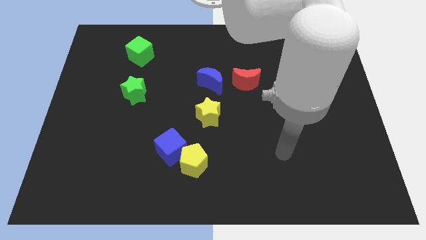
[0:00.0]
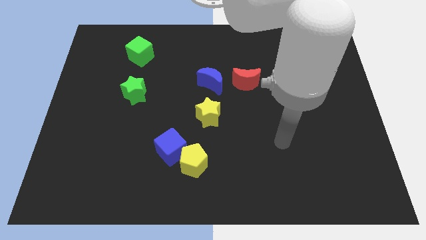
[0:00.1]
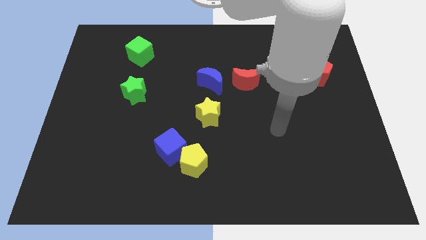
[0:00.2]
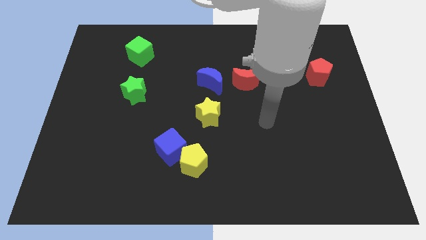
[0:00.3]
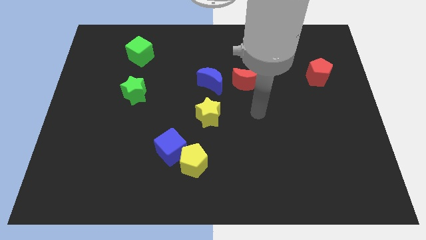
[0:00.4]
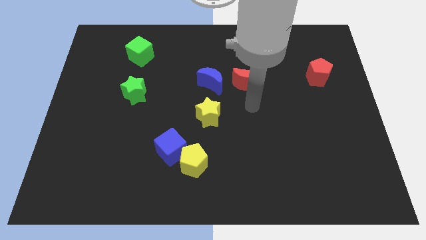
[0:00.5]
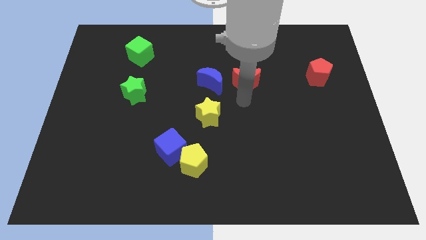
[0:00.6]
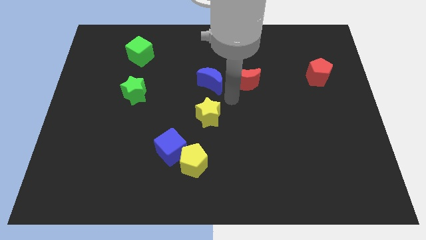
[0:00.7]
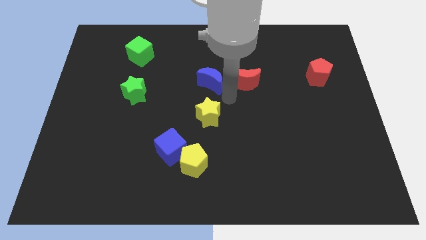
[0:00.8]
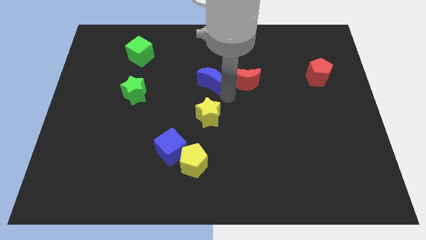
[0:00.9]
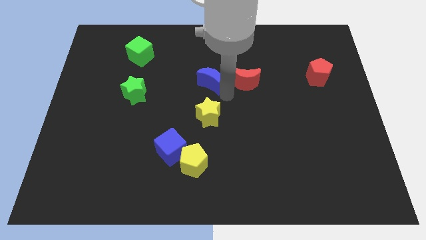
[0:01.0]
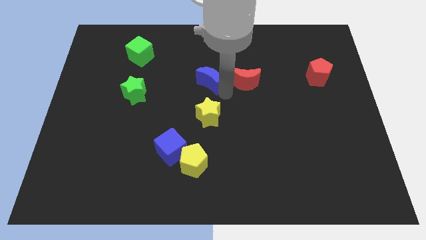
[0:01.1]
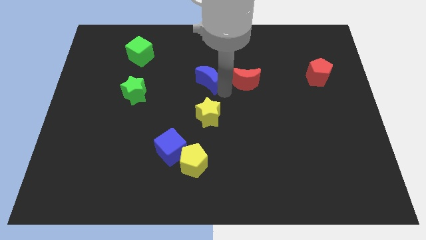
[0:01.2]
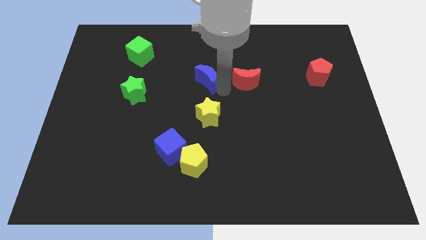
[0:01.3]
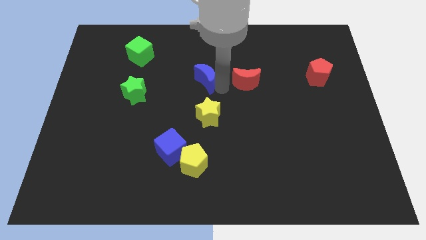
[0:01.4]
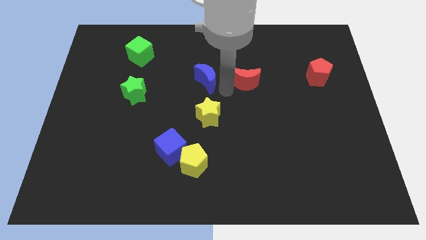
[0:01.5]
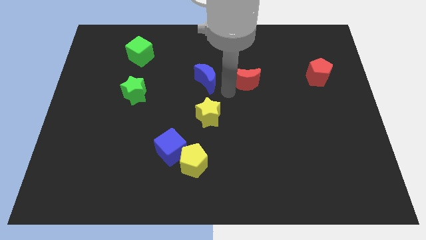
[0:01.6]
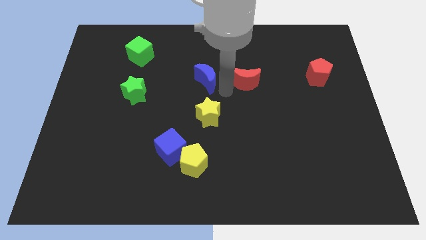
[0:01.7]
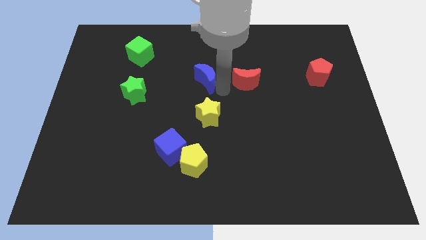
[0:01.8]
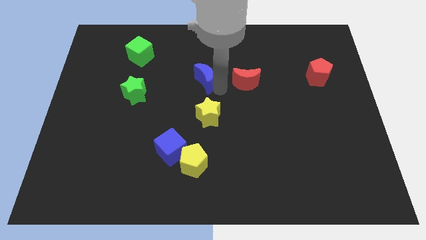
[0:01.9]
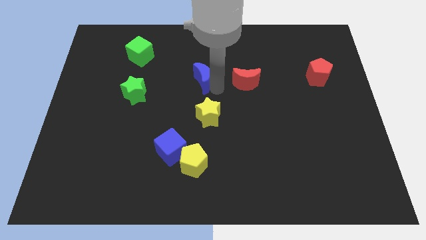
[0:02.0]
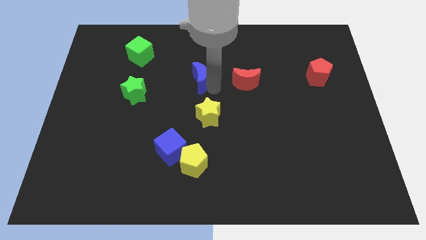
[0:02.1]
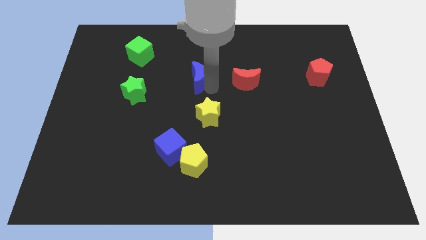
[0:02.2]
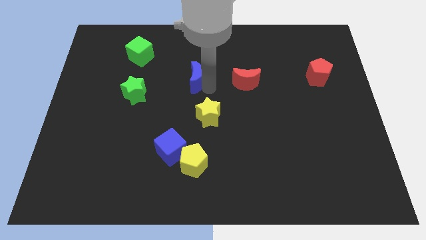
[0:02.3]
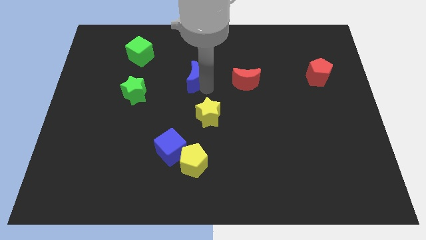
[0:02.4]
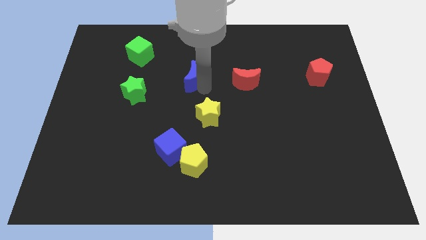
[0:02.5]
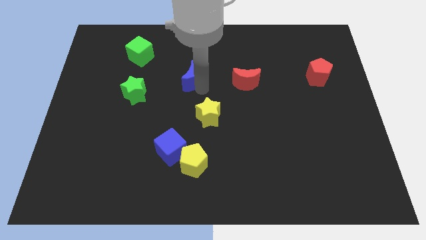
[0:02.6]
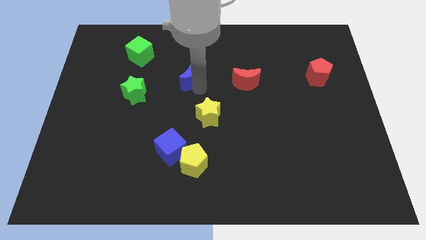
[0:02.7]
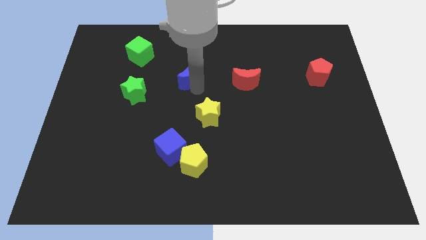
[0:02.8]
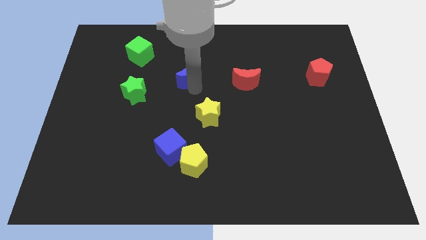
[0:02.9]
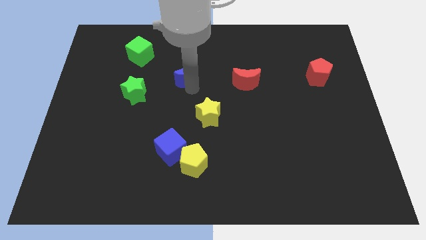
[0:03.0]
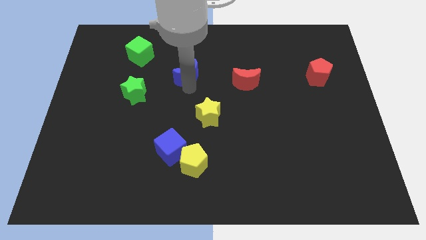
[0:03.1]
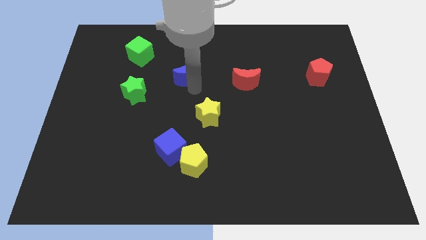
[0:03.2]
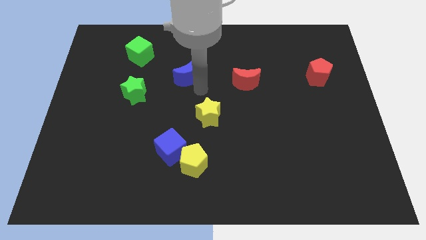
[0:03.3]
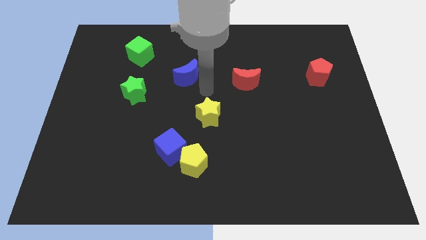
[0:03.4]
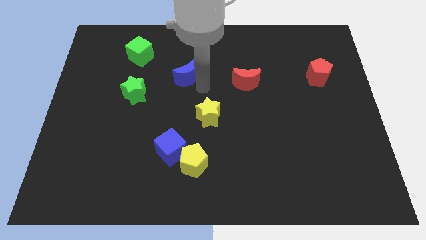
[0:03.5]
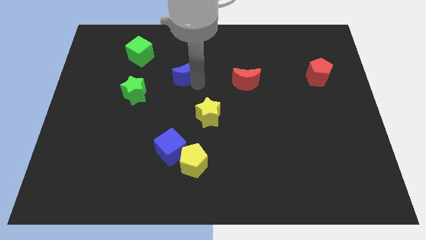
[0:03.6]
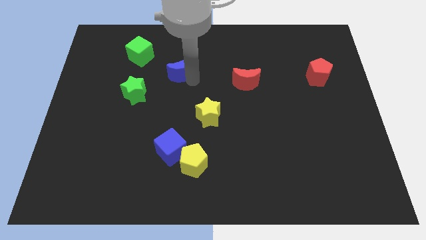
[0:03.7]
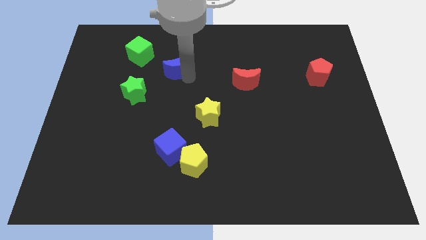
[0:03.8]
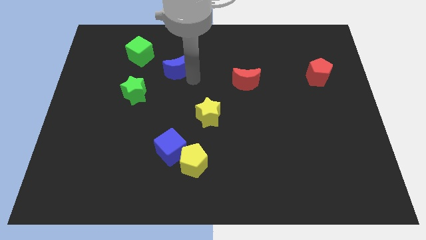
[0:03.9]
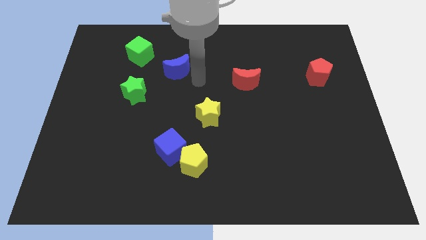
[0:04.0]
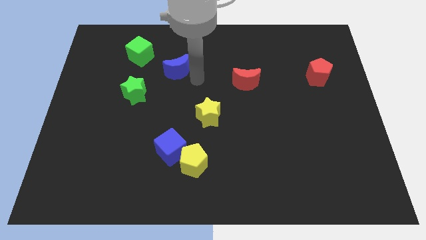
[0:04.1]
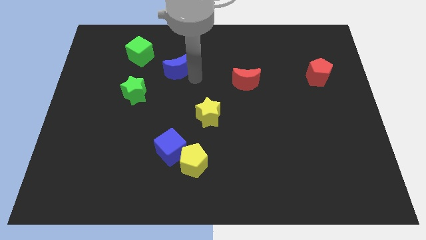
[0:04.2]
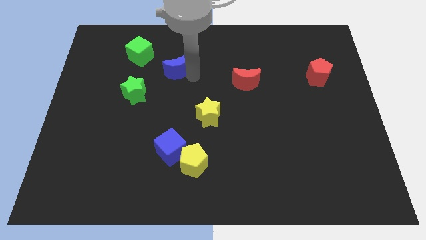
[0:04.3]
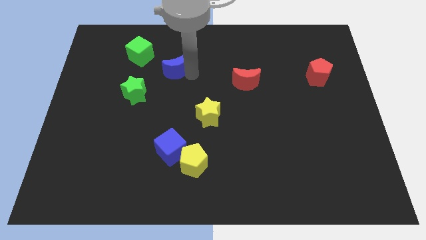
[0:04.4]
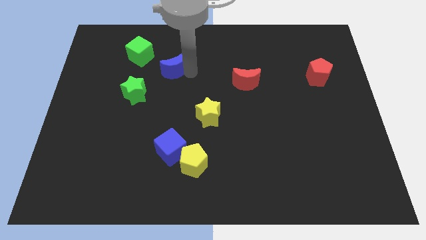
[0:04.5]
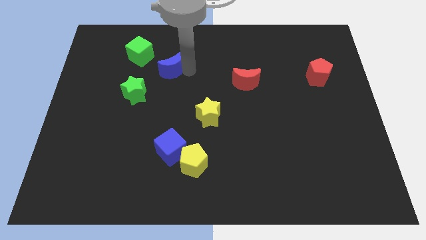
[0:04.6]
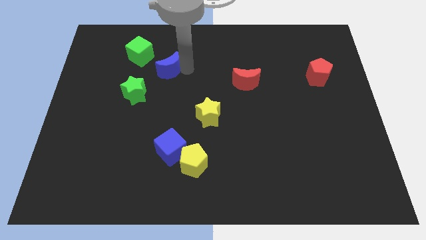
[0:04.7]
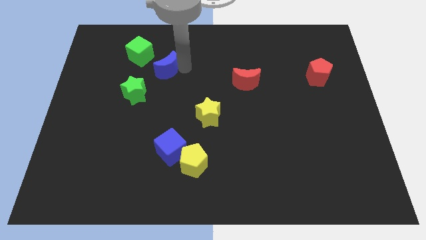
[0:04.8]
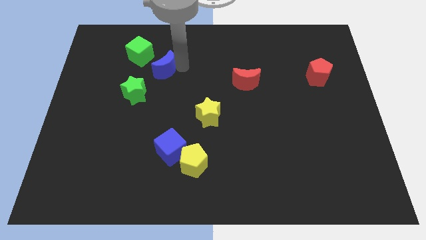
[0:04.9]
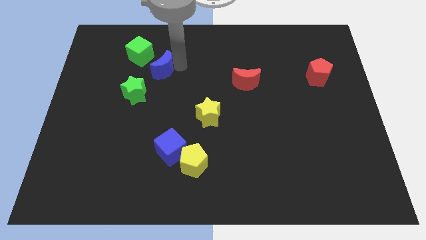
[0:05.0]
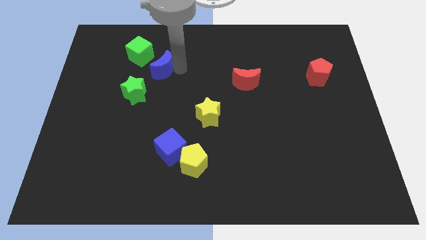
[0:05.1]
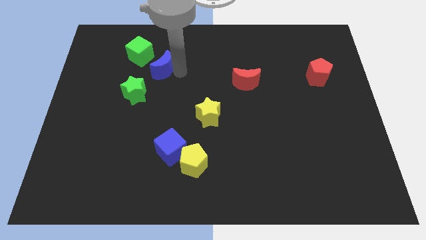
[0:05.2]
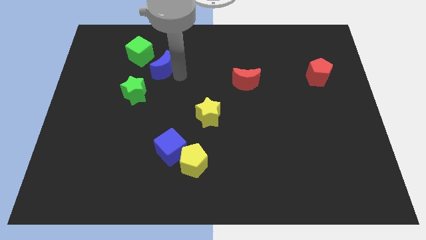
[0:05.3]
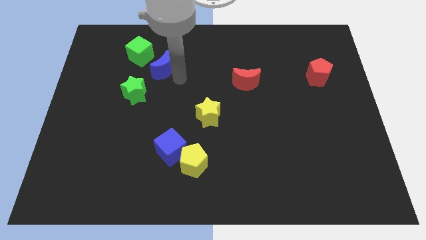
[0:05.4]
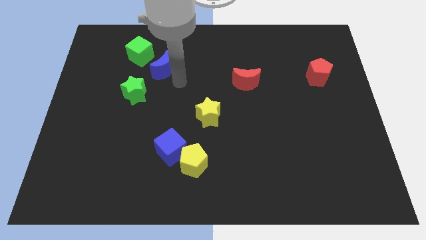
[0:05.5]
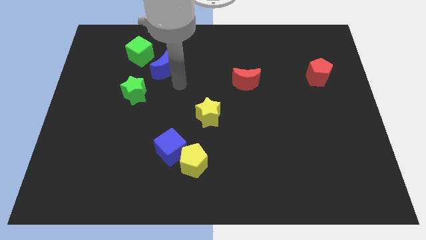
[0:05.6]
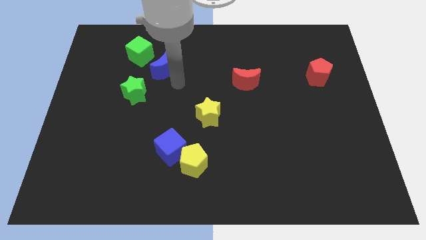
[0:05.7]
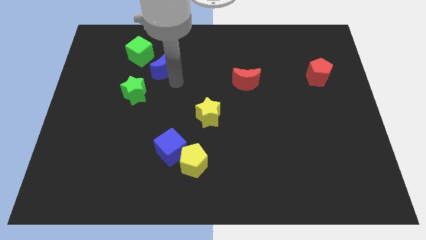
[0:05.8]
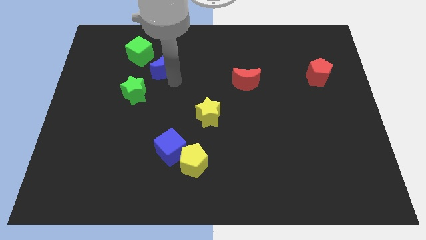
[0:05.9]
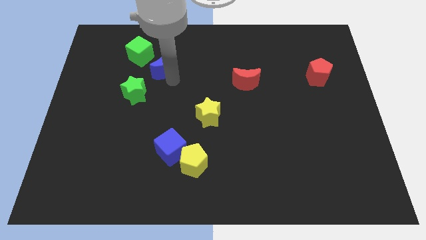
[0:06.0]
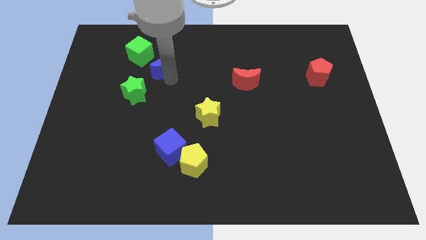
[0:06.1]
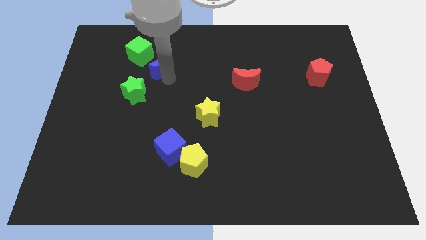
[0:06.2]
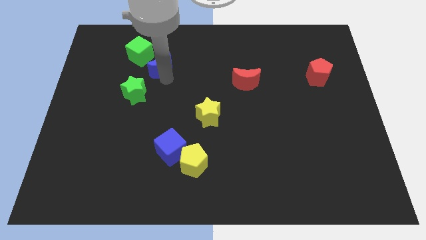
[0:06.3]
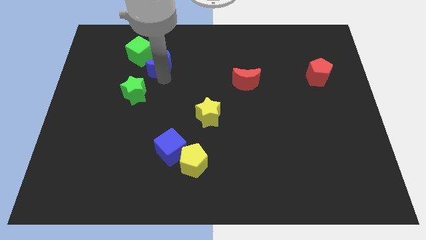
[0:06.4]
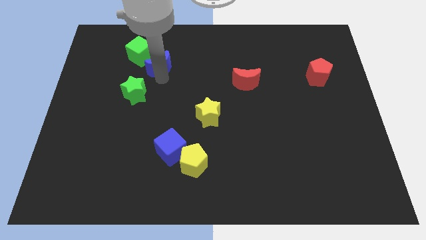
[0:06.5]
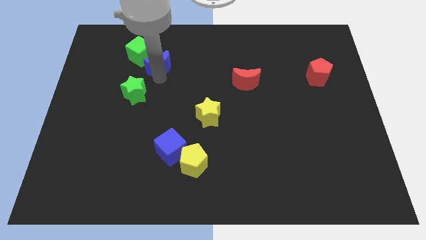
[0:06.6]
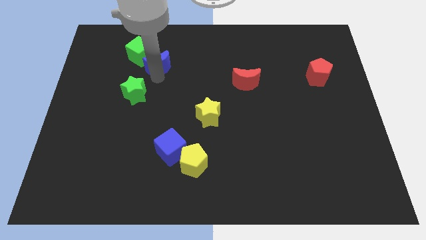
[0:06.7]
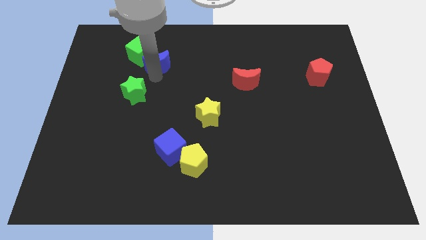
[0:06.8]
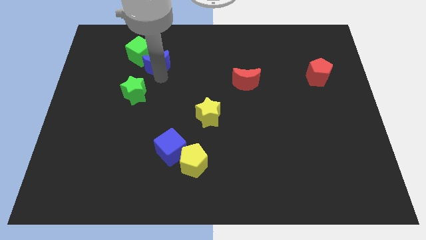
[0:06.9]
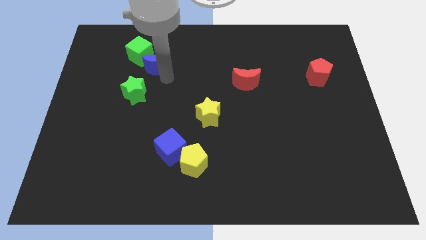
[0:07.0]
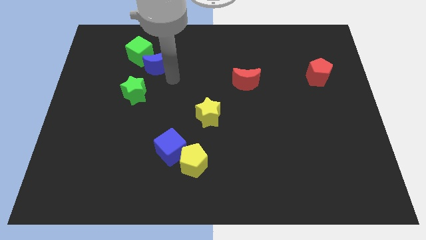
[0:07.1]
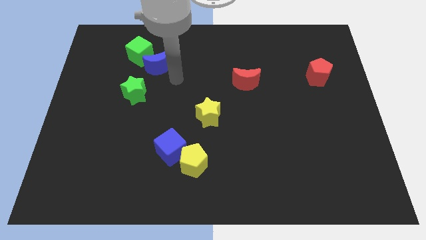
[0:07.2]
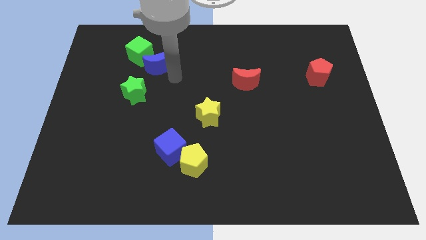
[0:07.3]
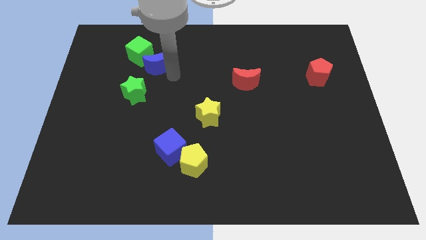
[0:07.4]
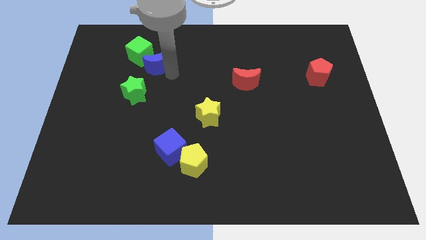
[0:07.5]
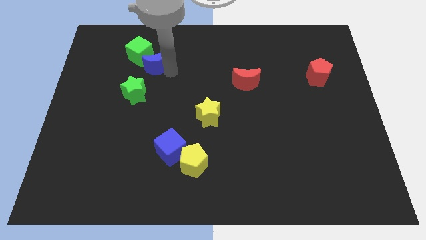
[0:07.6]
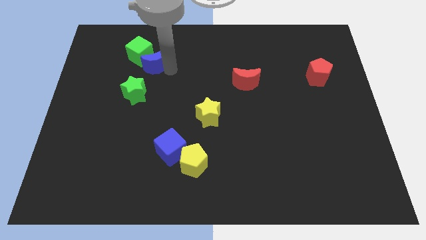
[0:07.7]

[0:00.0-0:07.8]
move the blue moon to the green cube
